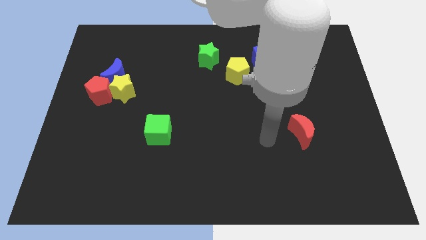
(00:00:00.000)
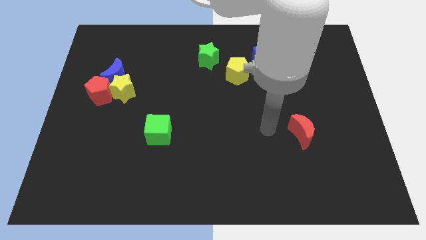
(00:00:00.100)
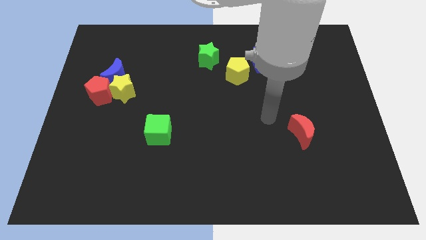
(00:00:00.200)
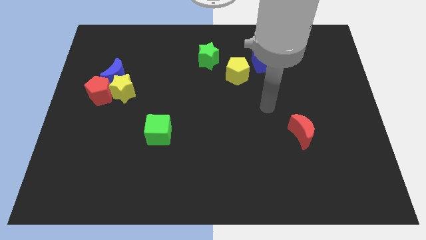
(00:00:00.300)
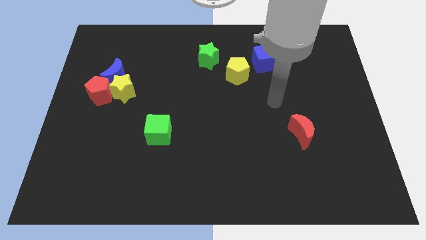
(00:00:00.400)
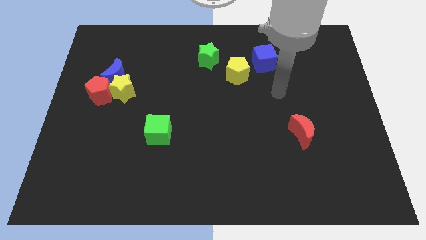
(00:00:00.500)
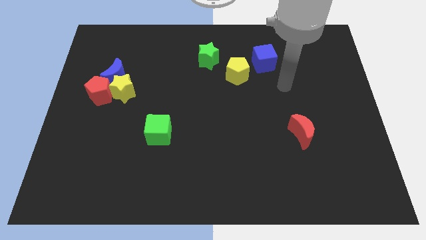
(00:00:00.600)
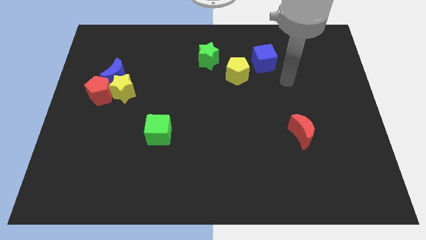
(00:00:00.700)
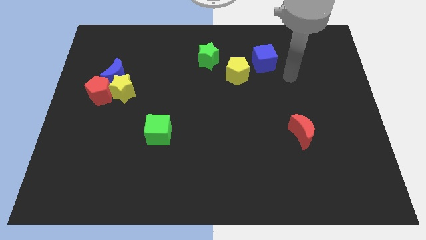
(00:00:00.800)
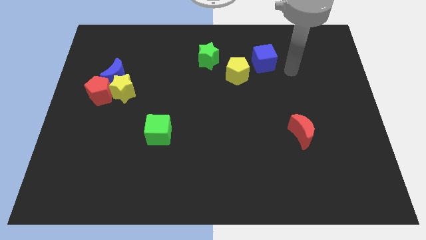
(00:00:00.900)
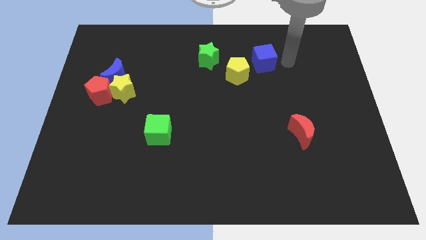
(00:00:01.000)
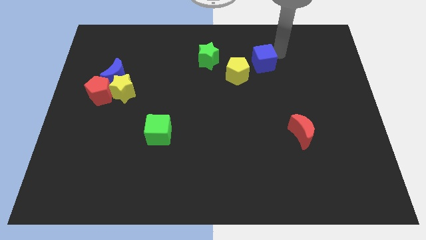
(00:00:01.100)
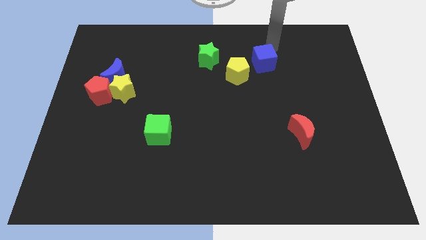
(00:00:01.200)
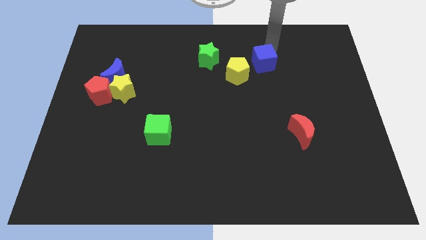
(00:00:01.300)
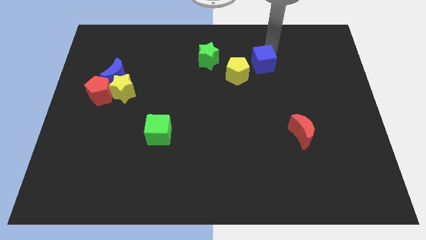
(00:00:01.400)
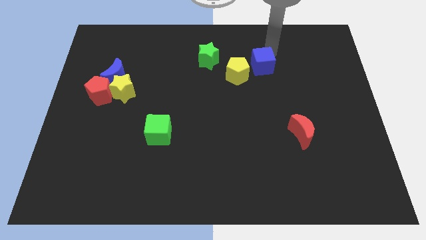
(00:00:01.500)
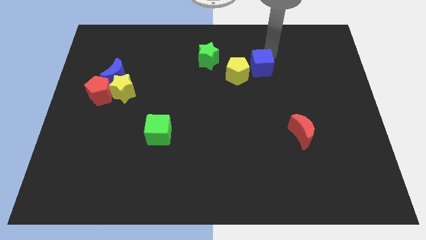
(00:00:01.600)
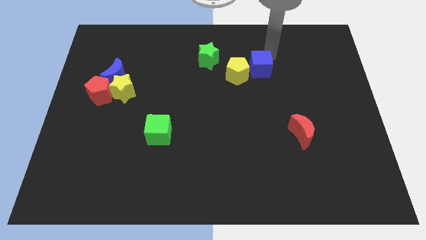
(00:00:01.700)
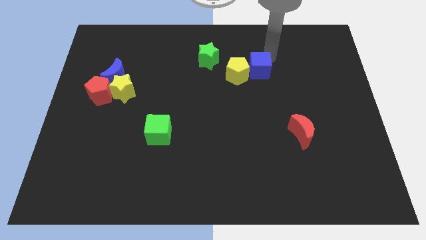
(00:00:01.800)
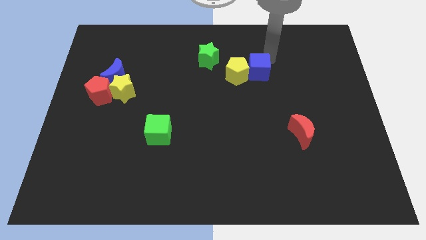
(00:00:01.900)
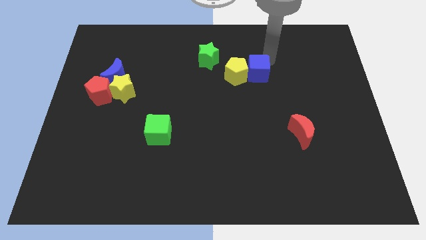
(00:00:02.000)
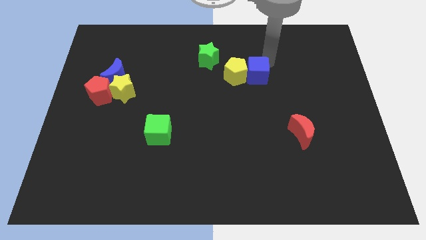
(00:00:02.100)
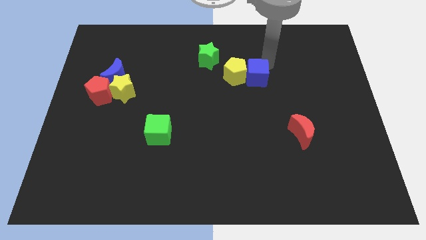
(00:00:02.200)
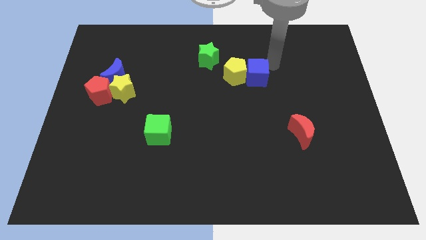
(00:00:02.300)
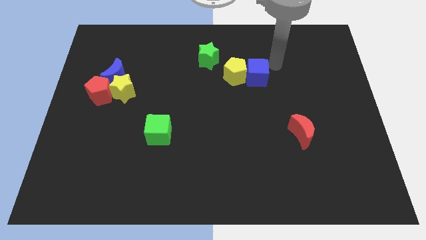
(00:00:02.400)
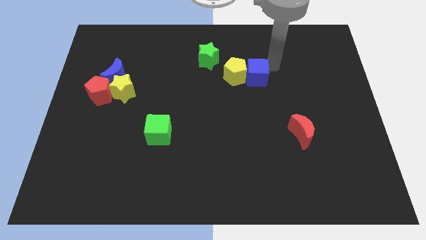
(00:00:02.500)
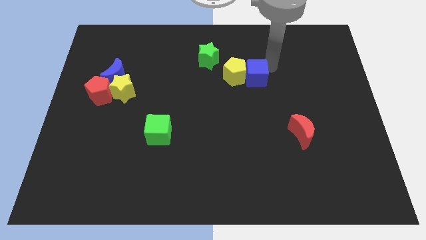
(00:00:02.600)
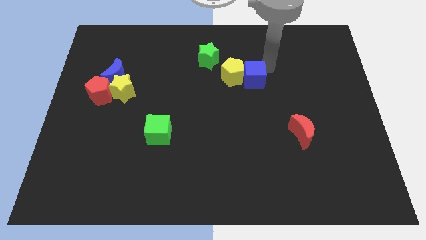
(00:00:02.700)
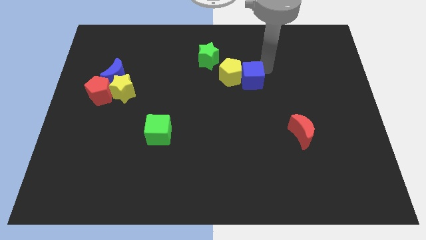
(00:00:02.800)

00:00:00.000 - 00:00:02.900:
move the blue cube down and left somewhat

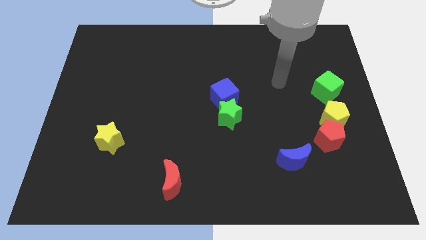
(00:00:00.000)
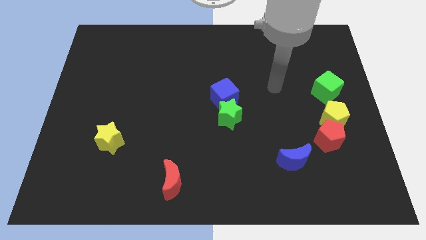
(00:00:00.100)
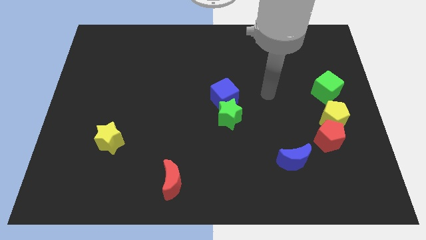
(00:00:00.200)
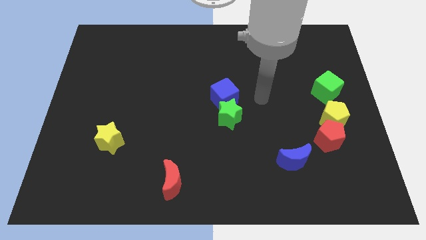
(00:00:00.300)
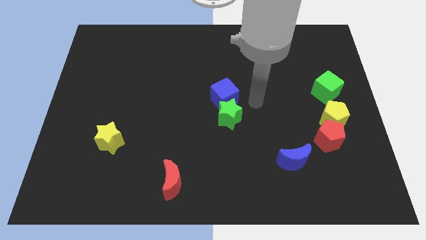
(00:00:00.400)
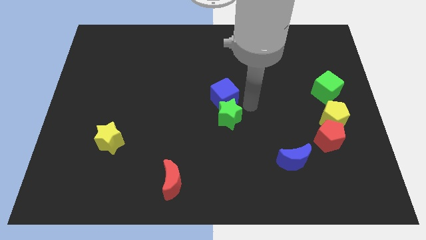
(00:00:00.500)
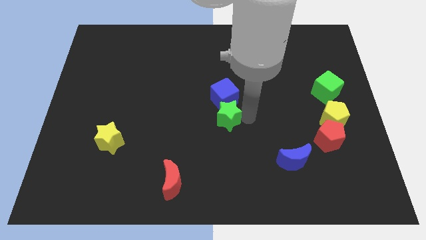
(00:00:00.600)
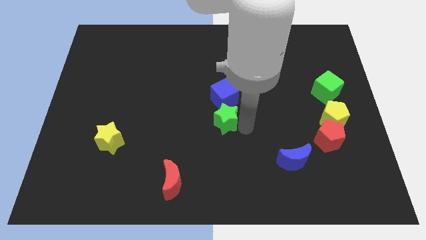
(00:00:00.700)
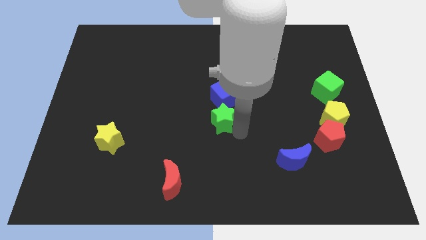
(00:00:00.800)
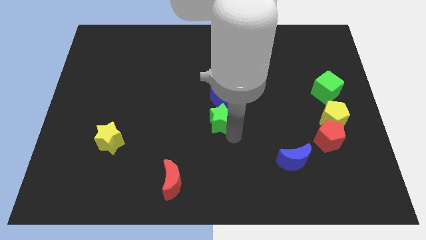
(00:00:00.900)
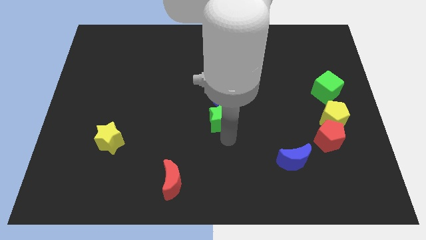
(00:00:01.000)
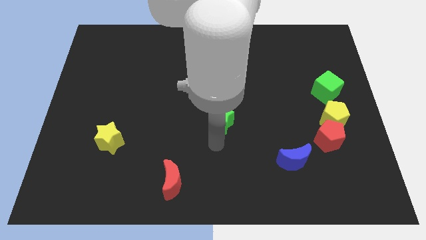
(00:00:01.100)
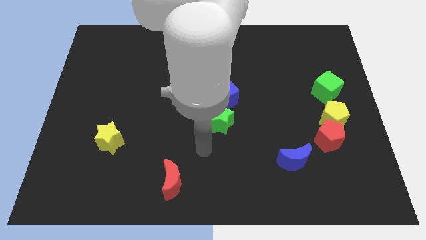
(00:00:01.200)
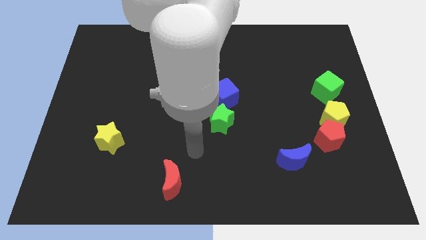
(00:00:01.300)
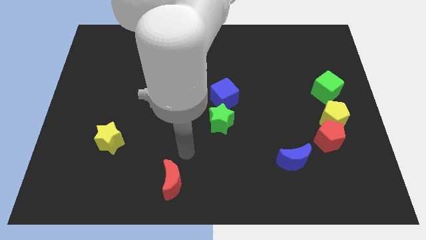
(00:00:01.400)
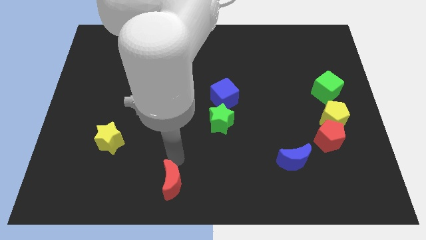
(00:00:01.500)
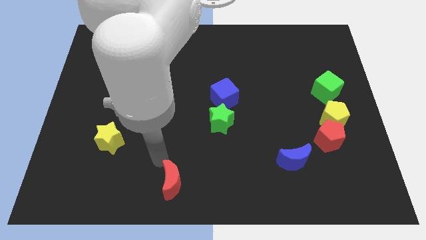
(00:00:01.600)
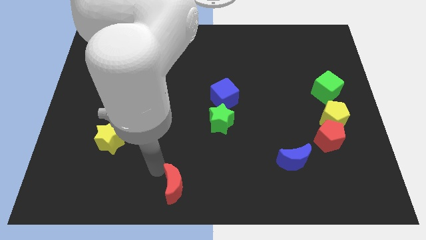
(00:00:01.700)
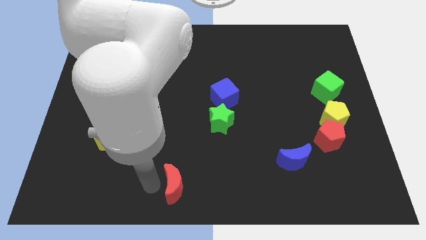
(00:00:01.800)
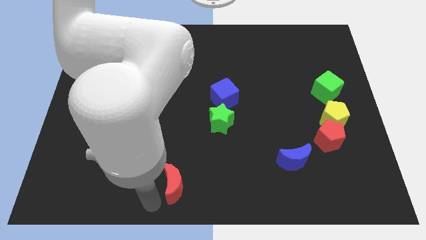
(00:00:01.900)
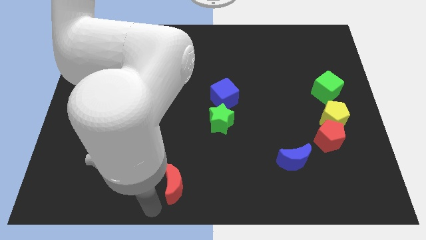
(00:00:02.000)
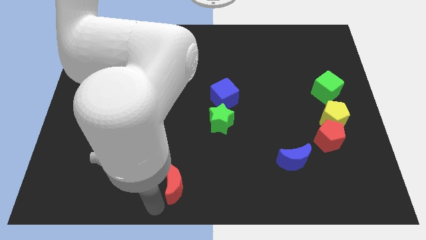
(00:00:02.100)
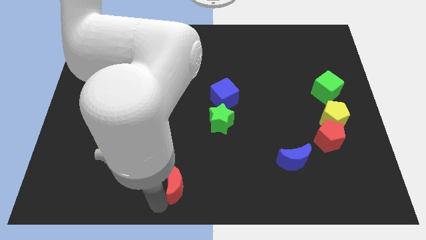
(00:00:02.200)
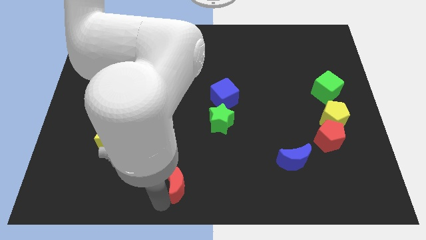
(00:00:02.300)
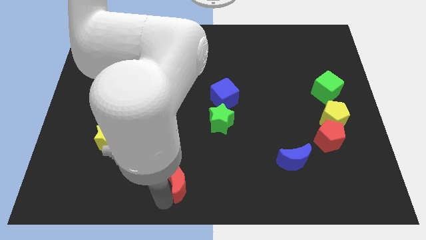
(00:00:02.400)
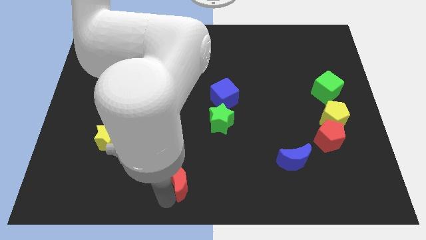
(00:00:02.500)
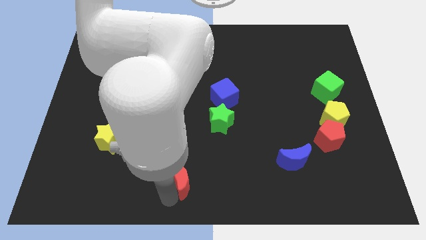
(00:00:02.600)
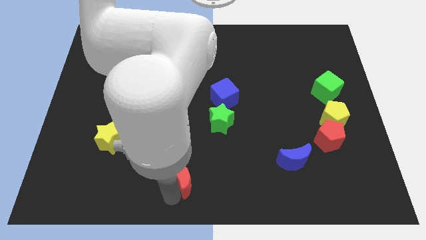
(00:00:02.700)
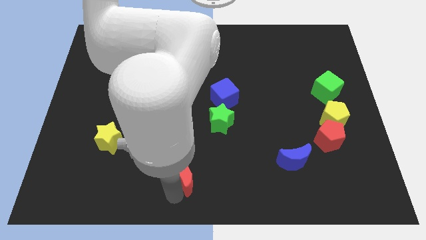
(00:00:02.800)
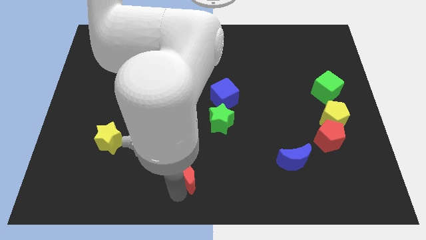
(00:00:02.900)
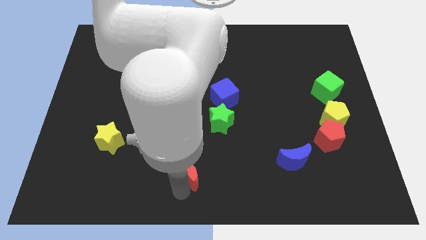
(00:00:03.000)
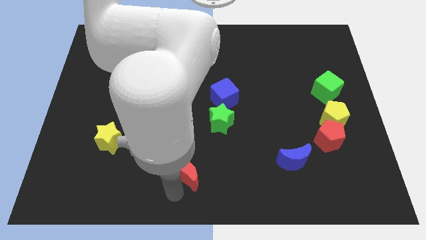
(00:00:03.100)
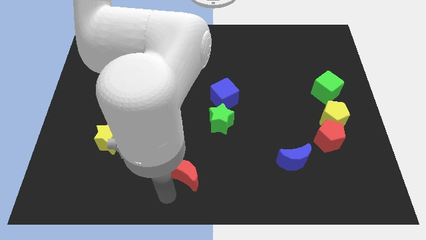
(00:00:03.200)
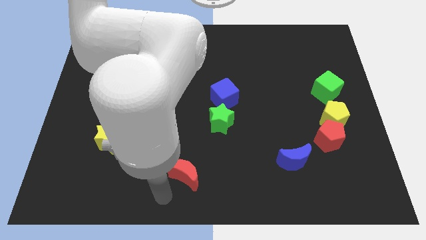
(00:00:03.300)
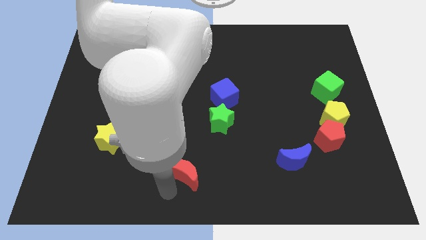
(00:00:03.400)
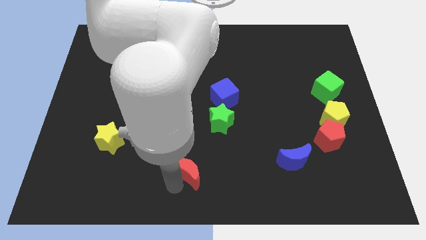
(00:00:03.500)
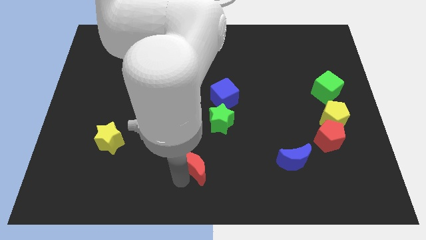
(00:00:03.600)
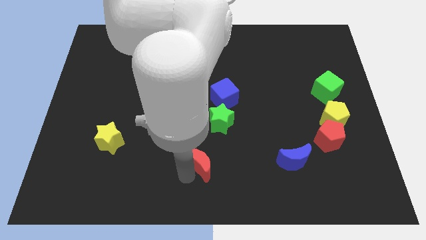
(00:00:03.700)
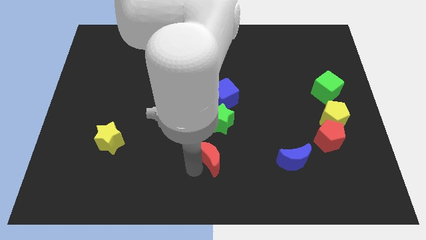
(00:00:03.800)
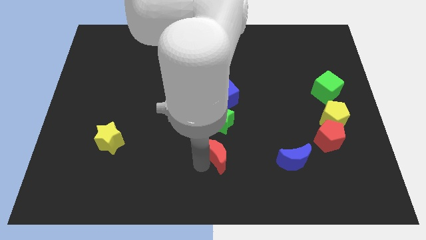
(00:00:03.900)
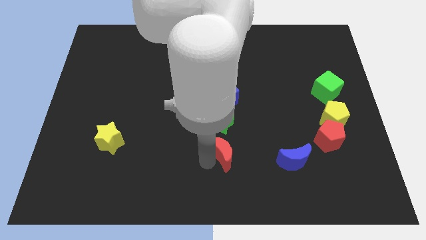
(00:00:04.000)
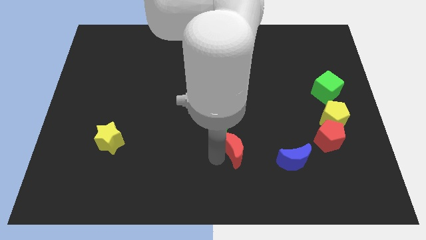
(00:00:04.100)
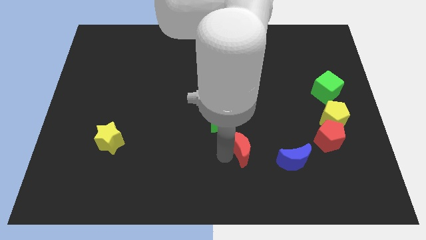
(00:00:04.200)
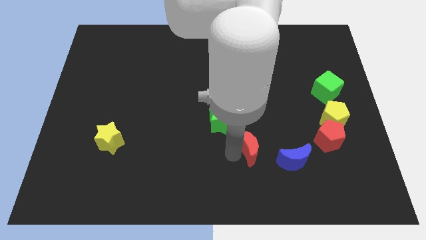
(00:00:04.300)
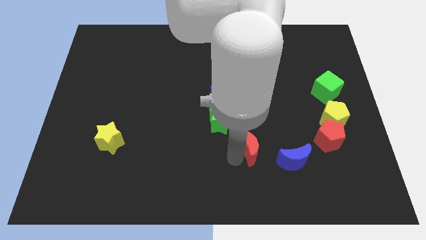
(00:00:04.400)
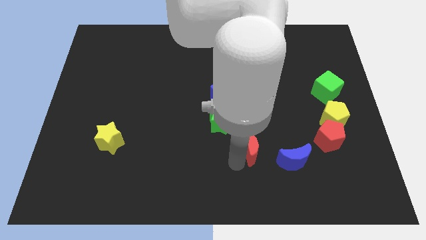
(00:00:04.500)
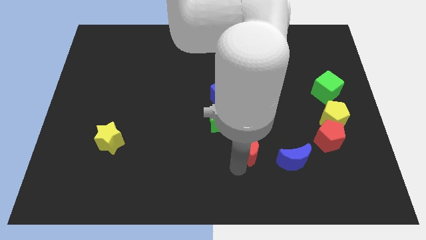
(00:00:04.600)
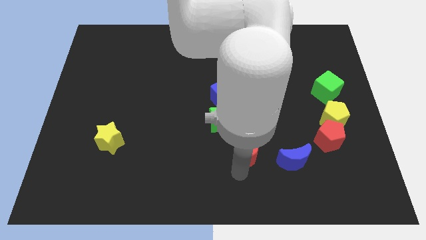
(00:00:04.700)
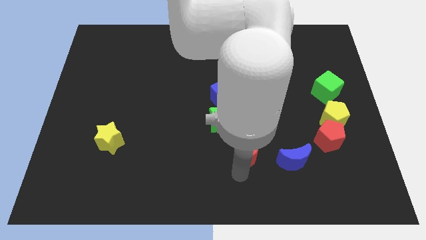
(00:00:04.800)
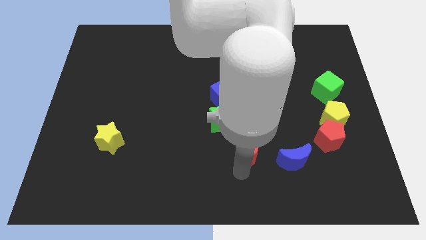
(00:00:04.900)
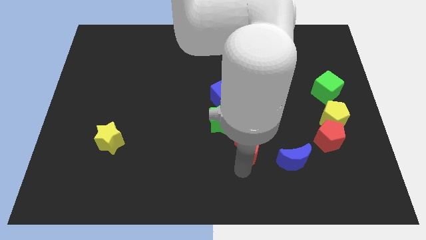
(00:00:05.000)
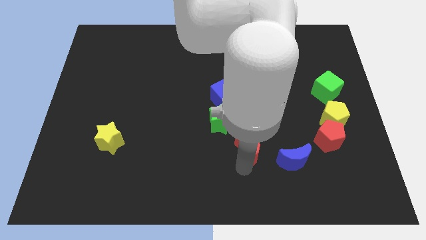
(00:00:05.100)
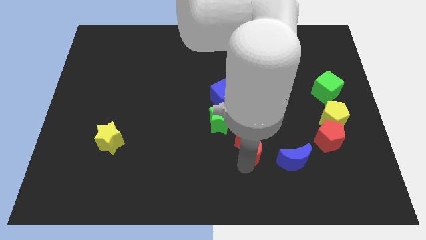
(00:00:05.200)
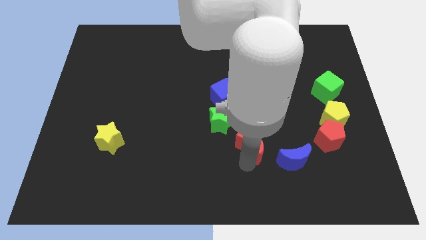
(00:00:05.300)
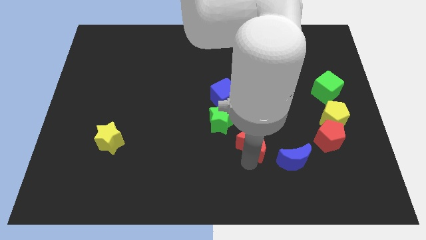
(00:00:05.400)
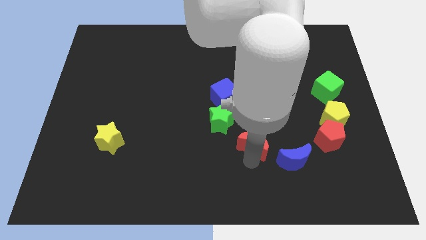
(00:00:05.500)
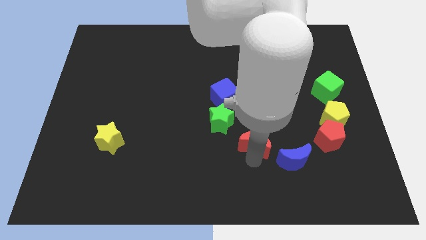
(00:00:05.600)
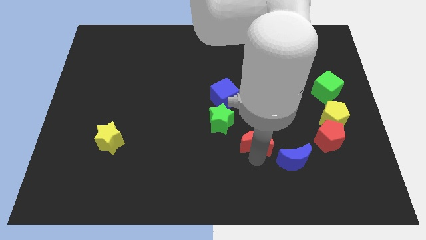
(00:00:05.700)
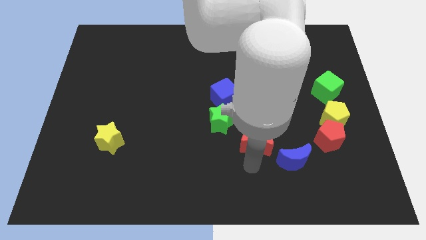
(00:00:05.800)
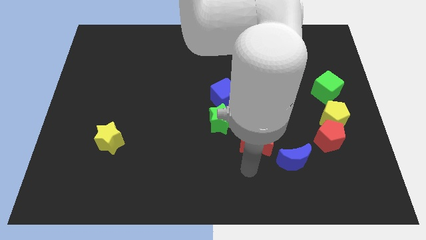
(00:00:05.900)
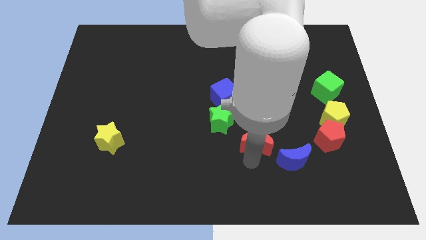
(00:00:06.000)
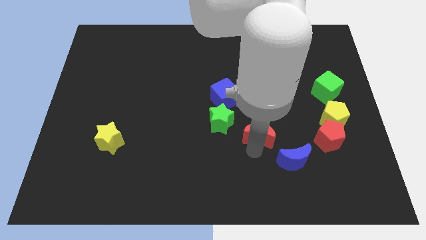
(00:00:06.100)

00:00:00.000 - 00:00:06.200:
move the red moon up and right diagonally
